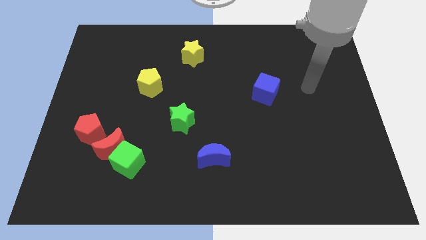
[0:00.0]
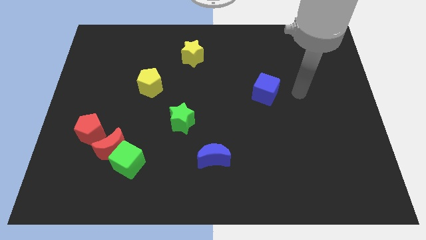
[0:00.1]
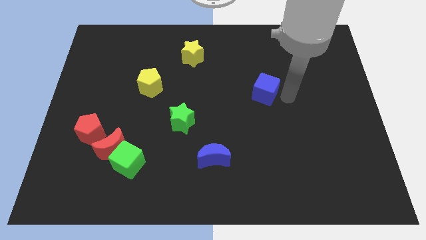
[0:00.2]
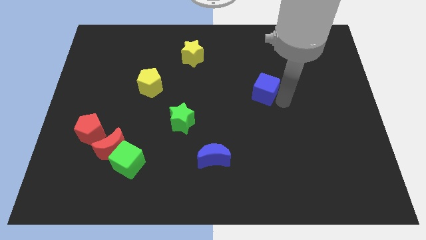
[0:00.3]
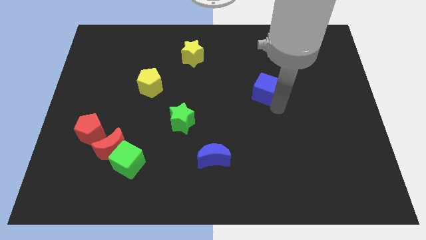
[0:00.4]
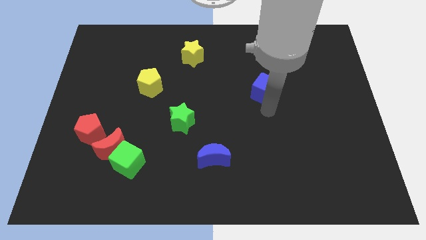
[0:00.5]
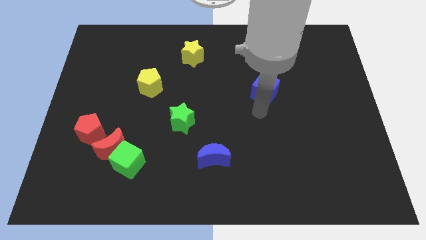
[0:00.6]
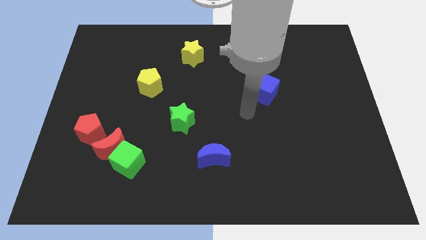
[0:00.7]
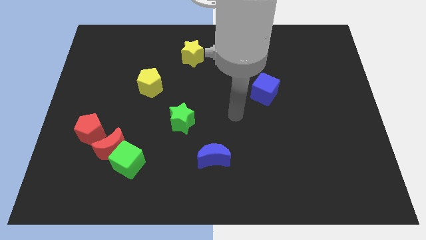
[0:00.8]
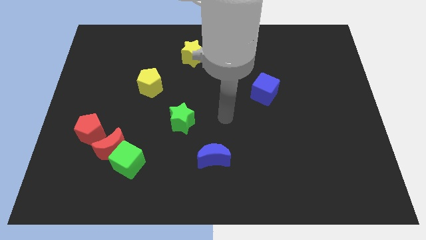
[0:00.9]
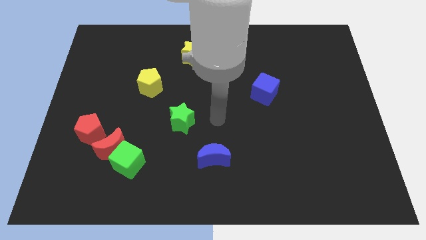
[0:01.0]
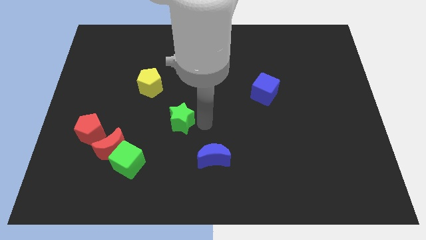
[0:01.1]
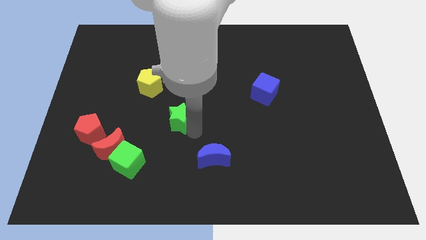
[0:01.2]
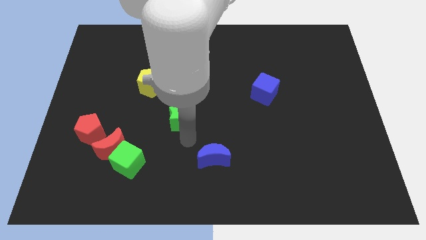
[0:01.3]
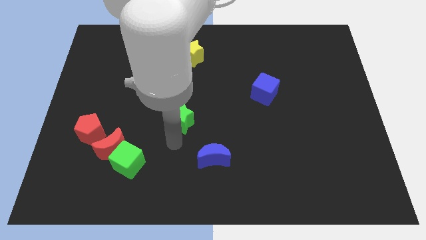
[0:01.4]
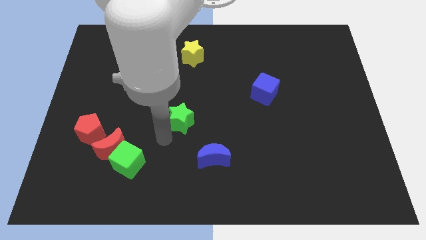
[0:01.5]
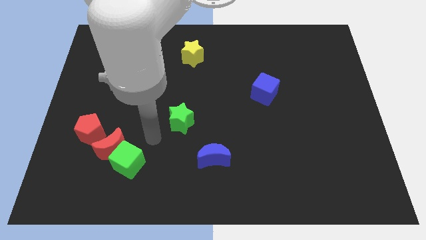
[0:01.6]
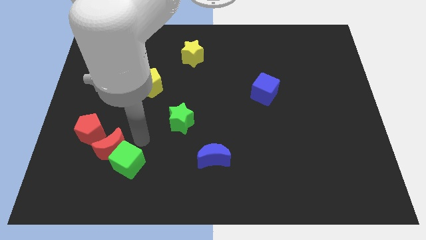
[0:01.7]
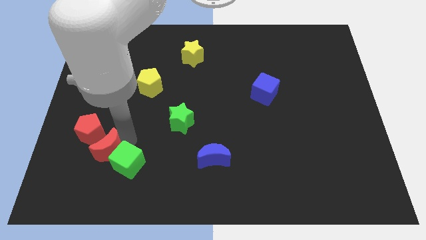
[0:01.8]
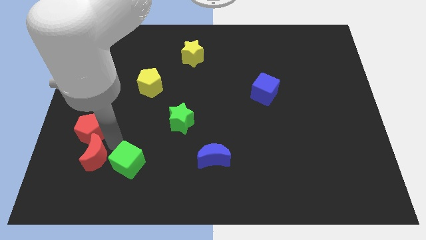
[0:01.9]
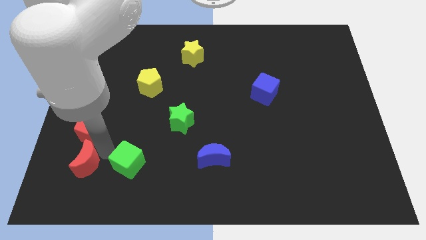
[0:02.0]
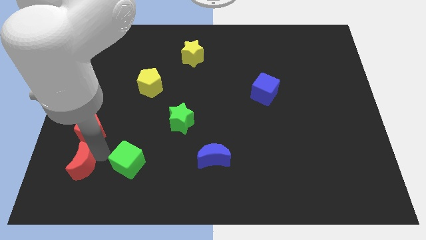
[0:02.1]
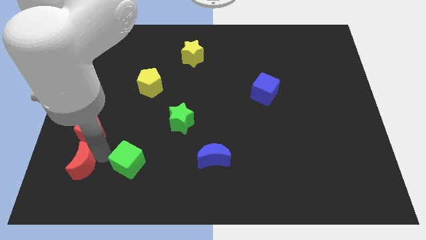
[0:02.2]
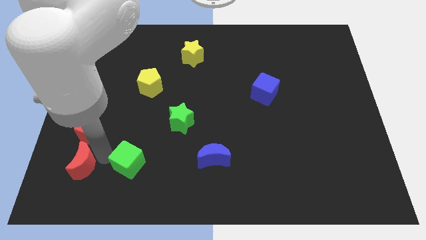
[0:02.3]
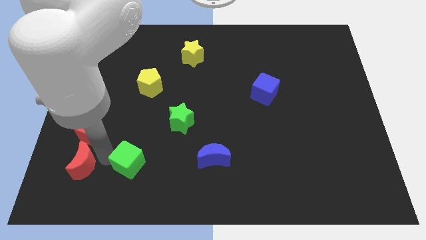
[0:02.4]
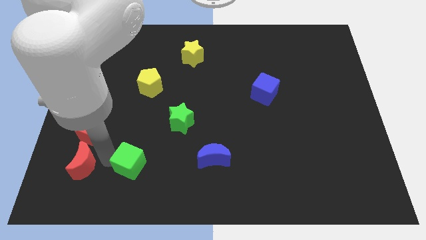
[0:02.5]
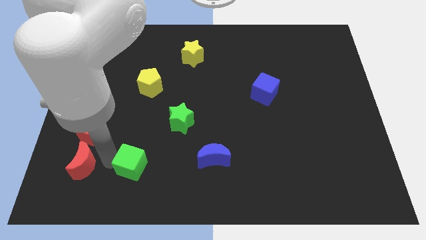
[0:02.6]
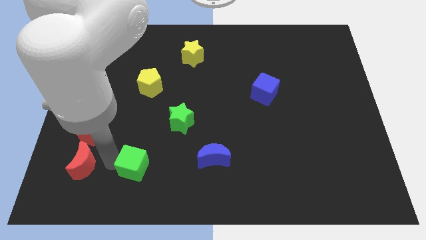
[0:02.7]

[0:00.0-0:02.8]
move the green cube away from the red moon

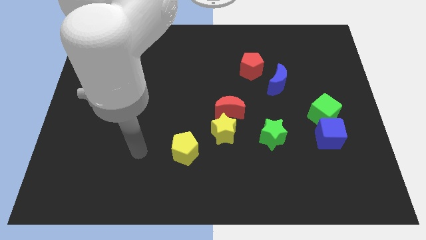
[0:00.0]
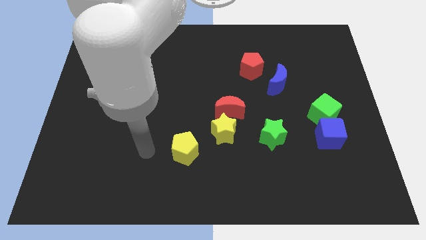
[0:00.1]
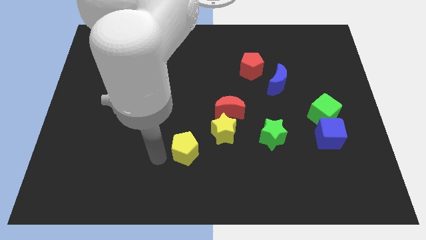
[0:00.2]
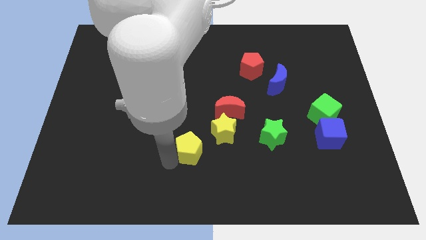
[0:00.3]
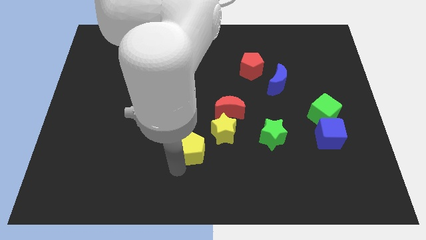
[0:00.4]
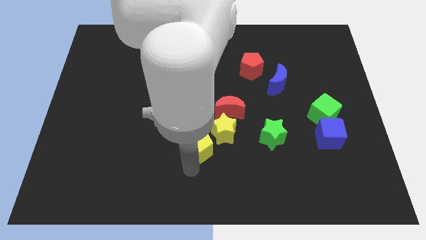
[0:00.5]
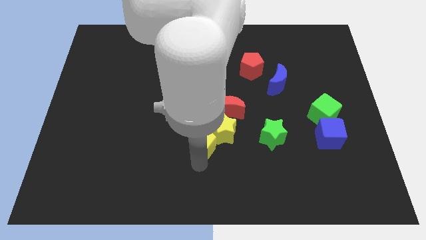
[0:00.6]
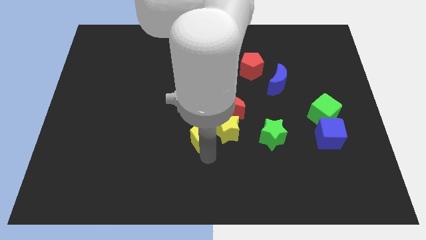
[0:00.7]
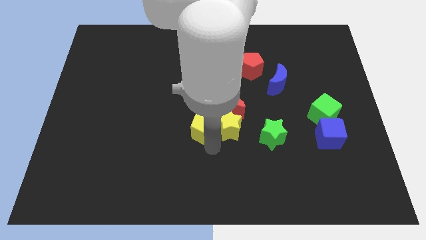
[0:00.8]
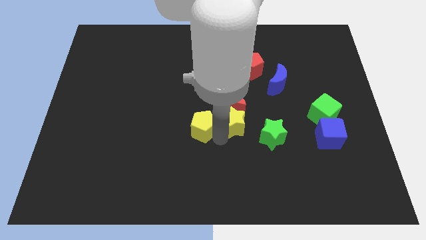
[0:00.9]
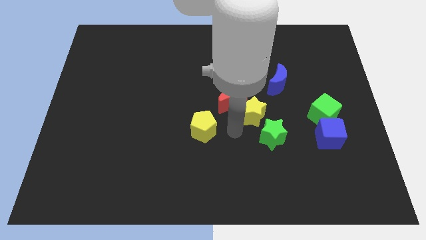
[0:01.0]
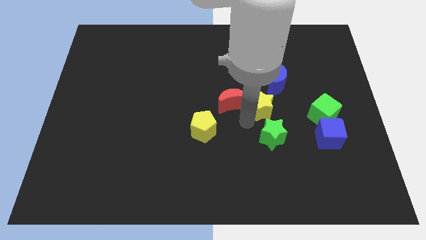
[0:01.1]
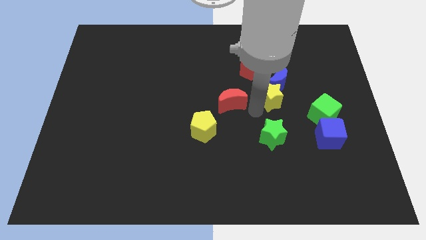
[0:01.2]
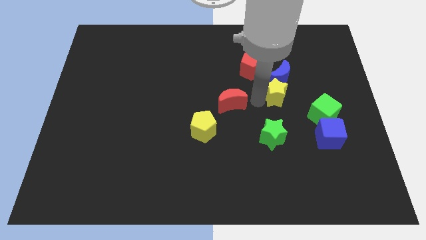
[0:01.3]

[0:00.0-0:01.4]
move the red moon away from the yellow star

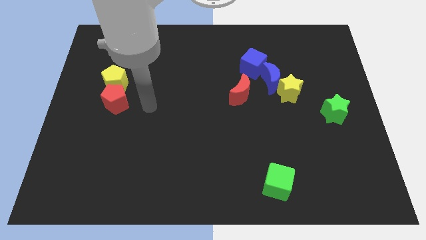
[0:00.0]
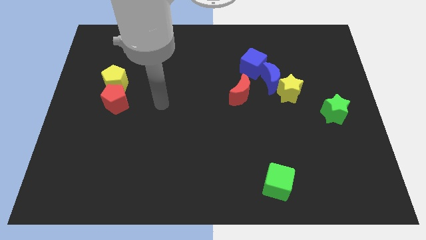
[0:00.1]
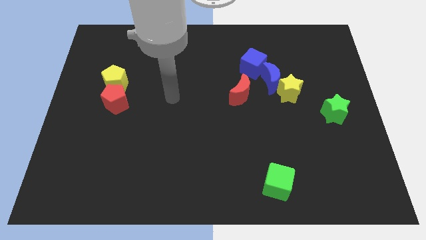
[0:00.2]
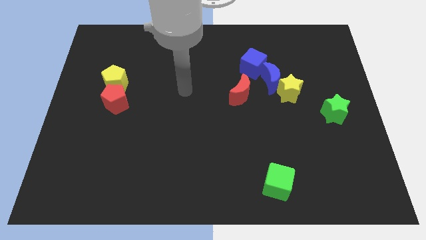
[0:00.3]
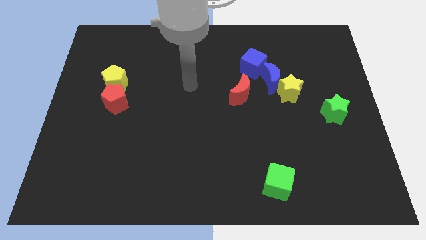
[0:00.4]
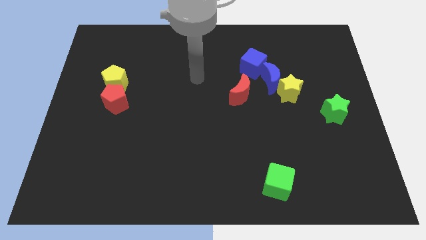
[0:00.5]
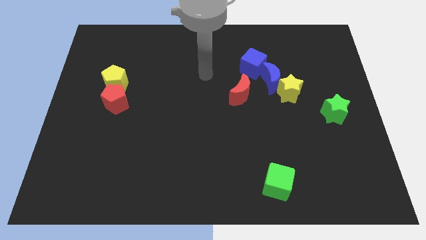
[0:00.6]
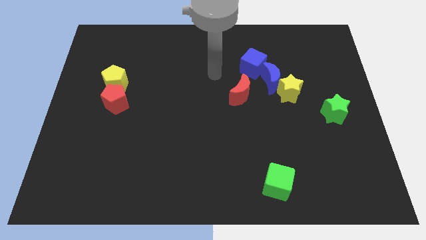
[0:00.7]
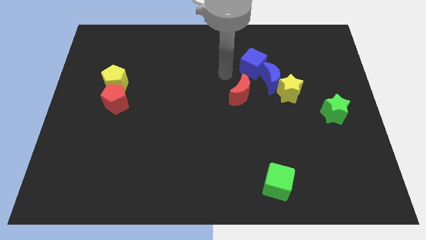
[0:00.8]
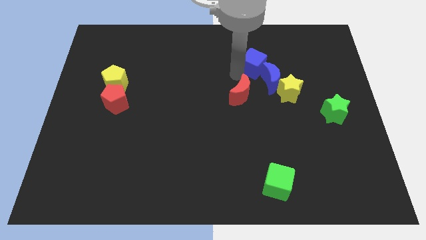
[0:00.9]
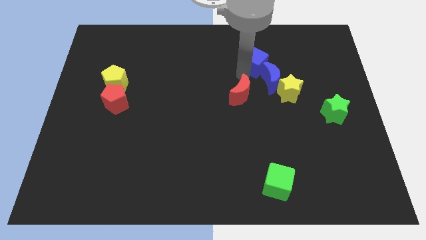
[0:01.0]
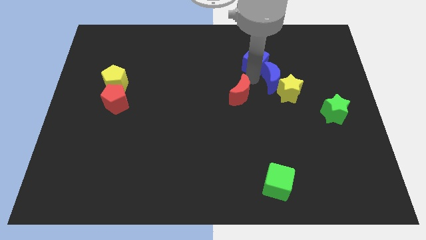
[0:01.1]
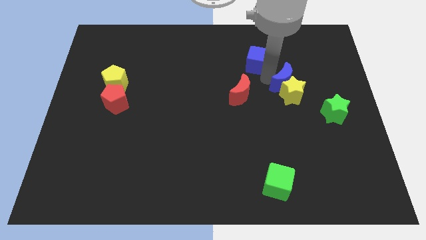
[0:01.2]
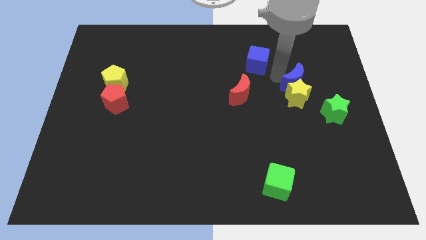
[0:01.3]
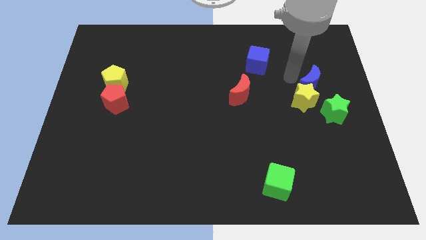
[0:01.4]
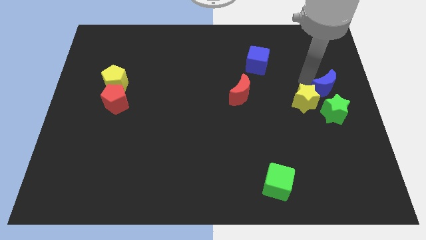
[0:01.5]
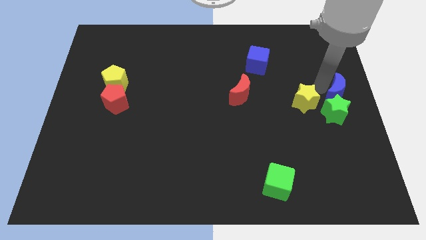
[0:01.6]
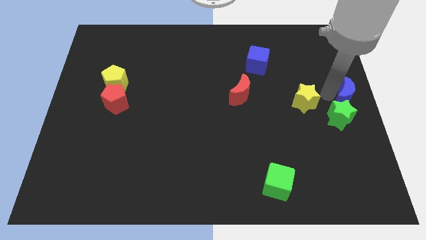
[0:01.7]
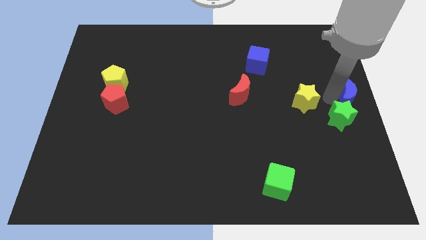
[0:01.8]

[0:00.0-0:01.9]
move the yellow star away from the blue moon

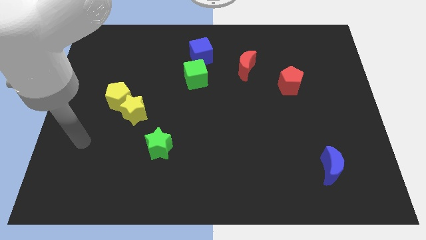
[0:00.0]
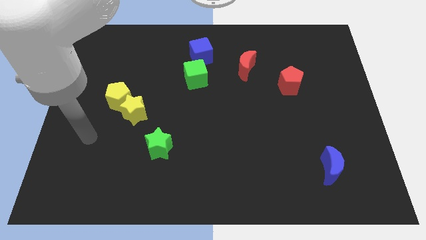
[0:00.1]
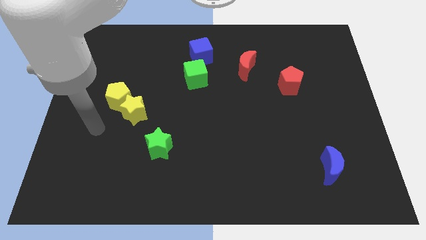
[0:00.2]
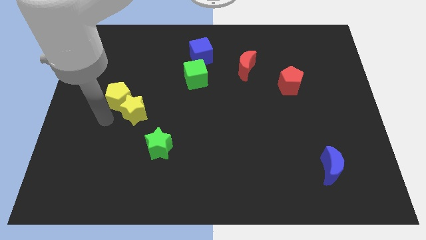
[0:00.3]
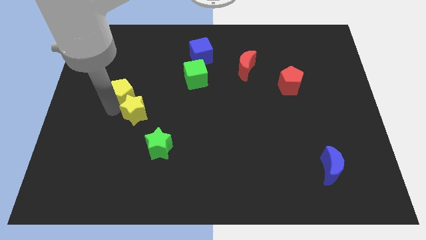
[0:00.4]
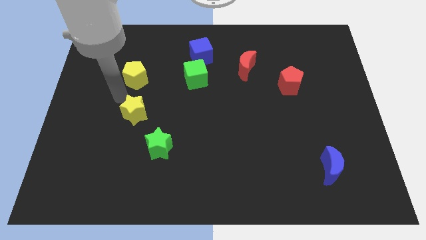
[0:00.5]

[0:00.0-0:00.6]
move the yellow star away from the yellow pentagon

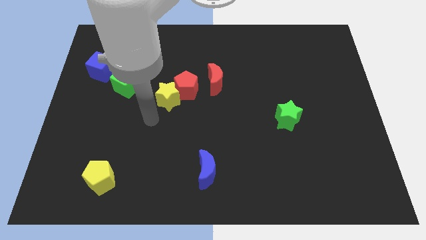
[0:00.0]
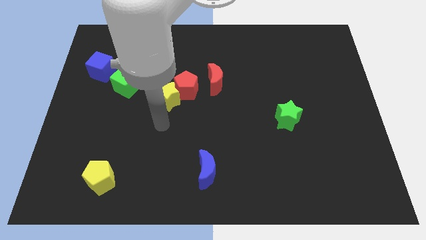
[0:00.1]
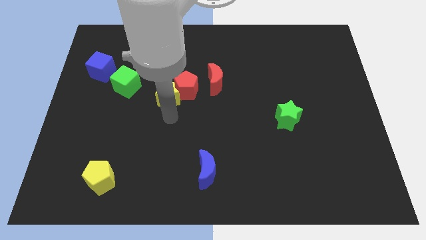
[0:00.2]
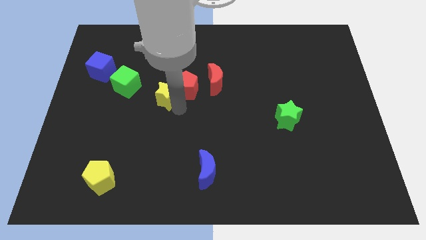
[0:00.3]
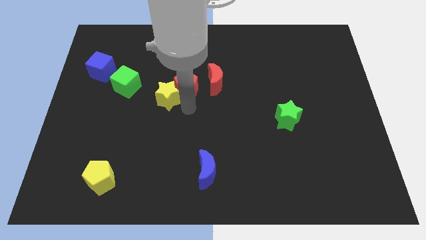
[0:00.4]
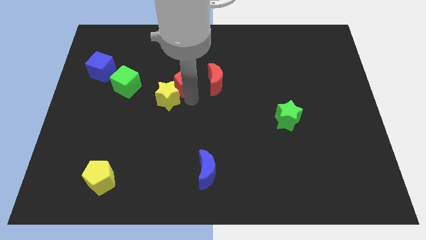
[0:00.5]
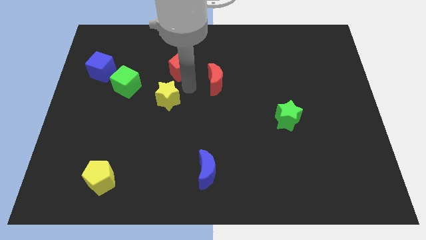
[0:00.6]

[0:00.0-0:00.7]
separate the yellow star from the red pentagon

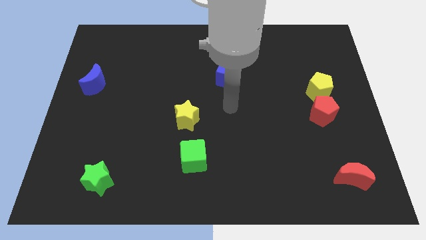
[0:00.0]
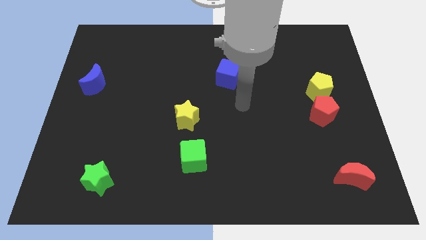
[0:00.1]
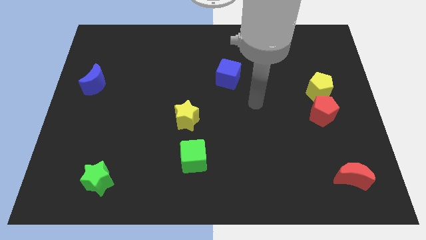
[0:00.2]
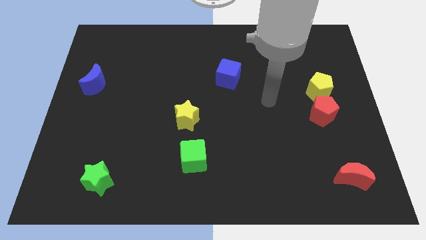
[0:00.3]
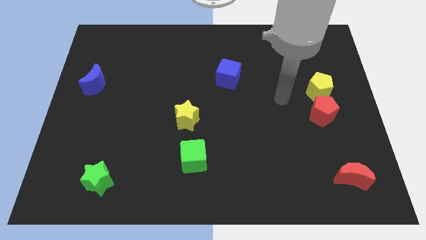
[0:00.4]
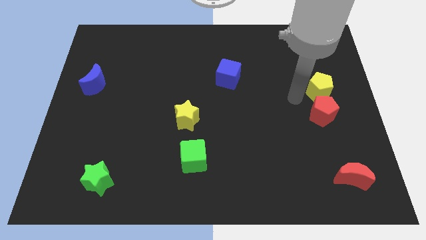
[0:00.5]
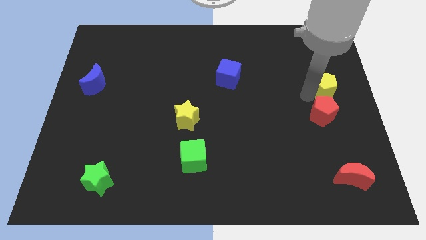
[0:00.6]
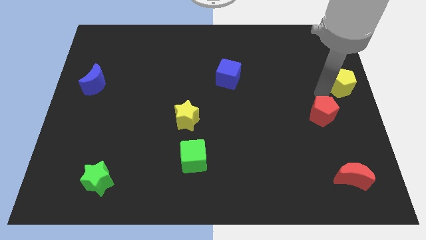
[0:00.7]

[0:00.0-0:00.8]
pull the red pentagon apart from the yellow pentagon

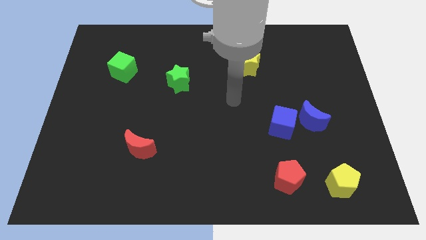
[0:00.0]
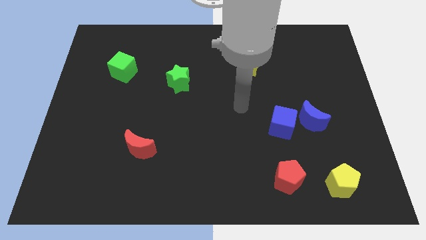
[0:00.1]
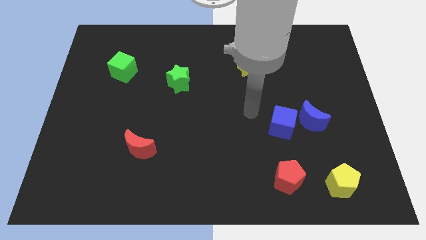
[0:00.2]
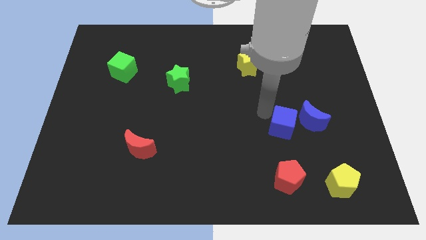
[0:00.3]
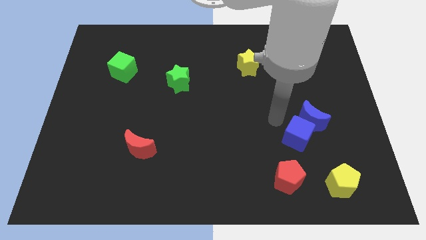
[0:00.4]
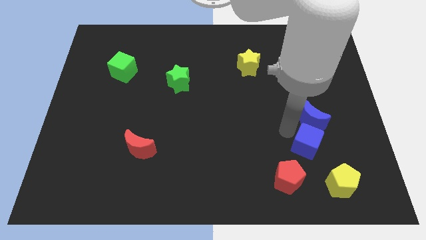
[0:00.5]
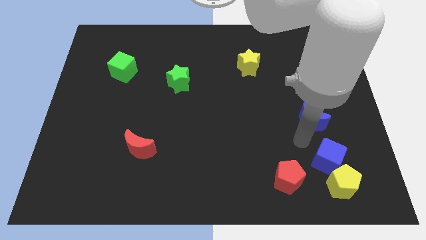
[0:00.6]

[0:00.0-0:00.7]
pull the blue moon apart from the blue cube

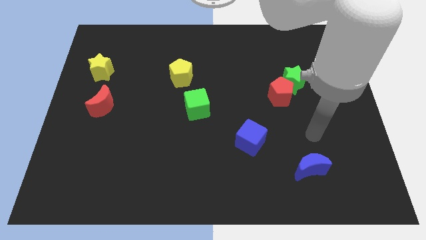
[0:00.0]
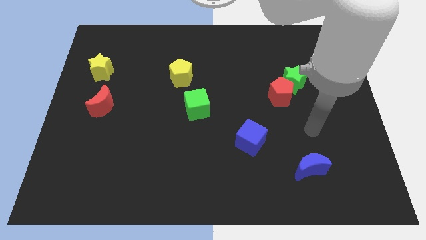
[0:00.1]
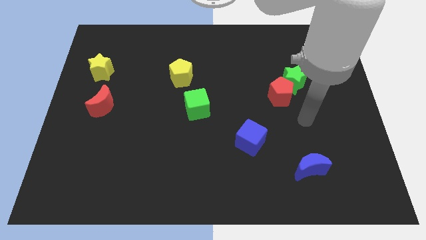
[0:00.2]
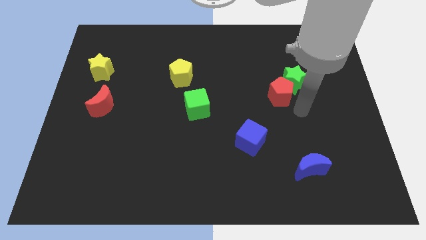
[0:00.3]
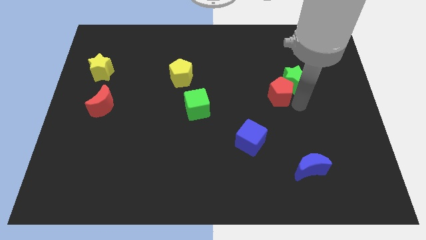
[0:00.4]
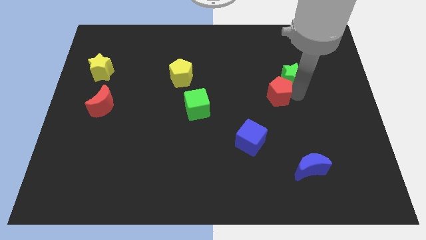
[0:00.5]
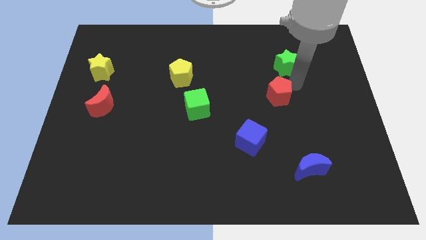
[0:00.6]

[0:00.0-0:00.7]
move the red pentagon away from the green star
